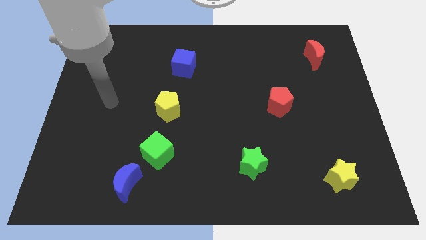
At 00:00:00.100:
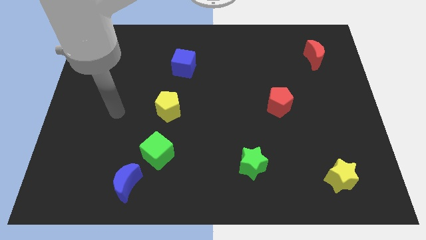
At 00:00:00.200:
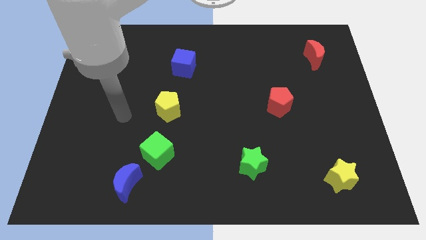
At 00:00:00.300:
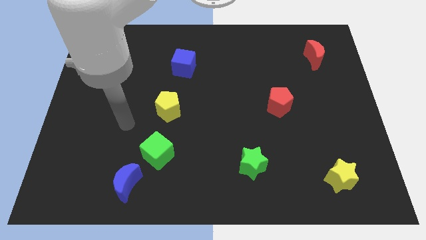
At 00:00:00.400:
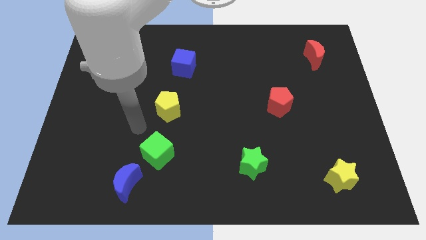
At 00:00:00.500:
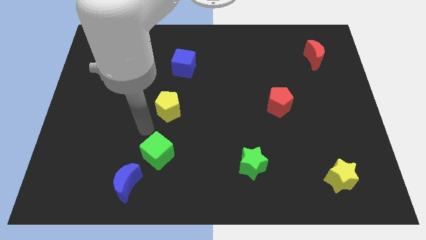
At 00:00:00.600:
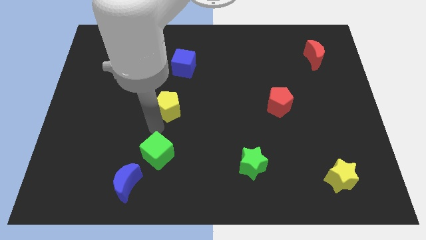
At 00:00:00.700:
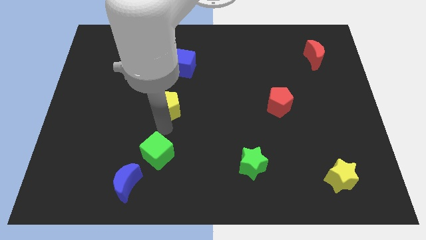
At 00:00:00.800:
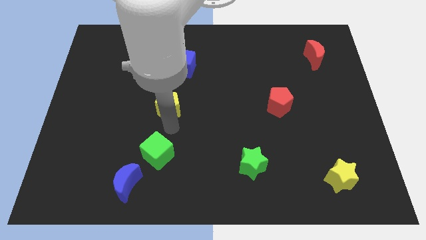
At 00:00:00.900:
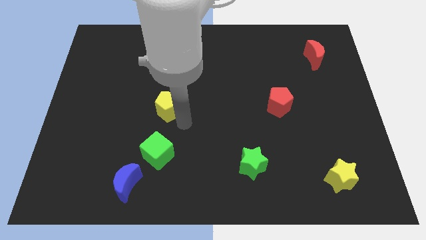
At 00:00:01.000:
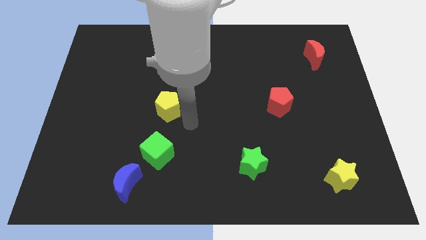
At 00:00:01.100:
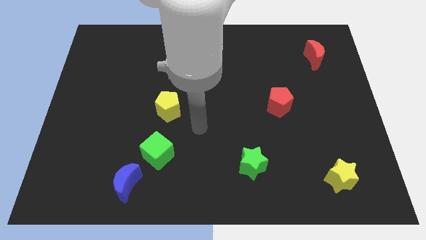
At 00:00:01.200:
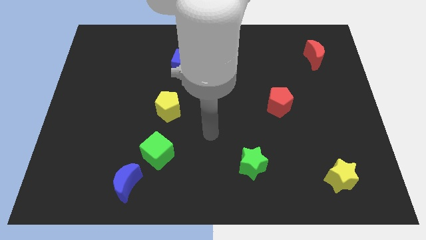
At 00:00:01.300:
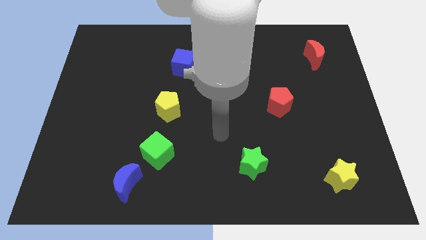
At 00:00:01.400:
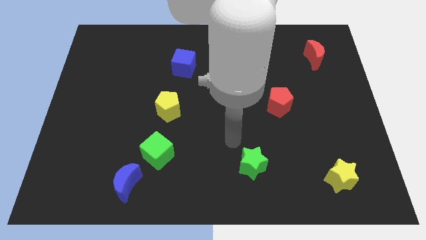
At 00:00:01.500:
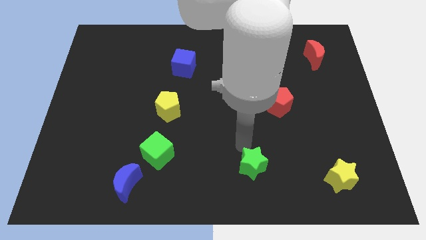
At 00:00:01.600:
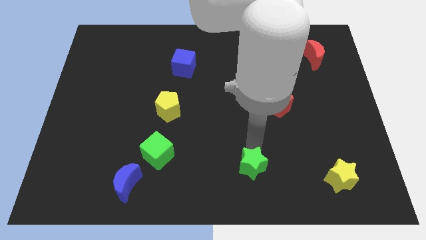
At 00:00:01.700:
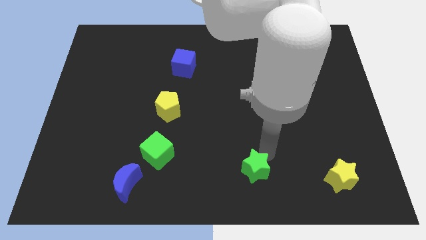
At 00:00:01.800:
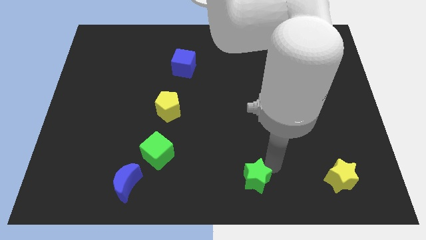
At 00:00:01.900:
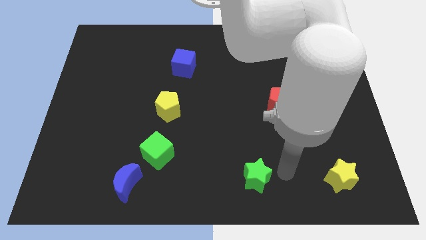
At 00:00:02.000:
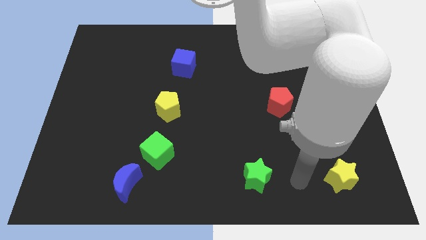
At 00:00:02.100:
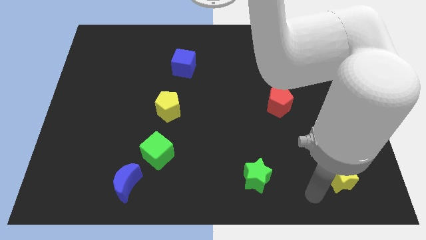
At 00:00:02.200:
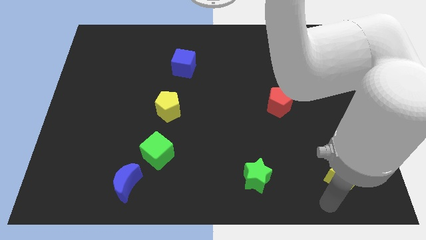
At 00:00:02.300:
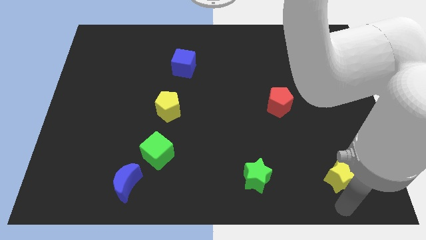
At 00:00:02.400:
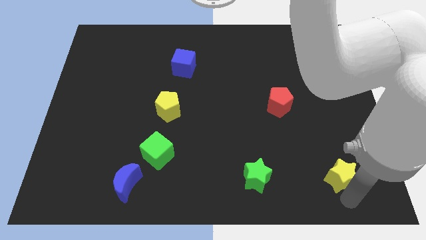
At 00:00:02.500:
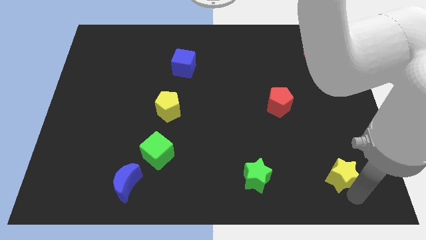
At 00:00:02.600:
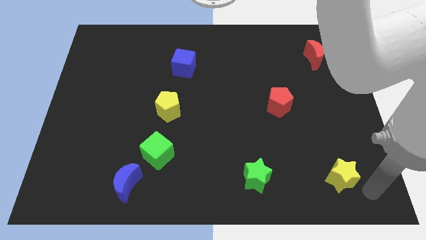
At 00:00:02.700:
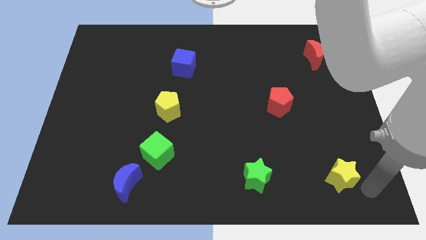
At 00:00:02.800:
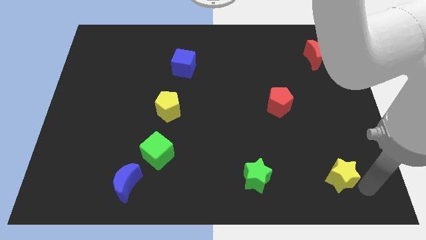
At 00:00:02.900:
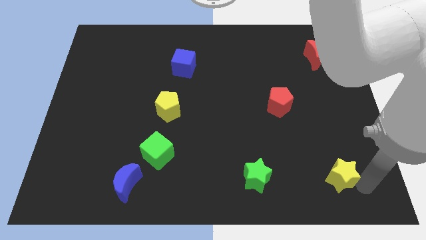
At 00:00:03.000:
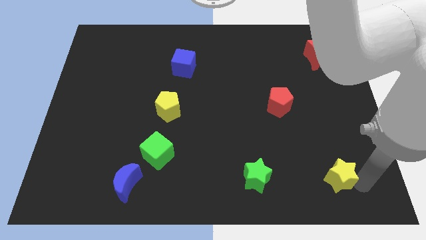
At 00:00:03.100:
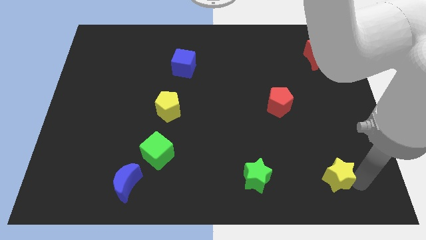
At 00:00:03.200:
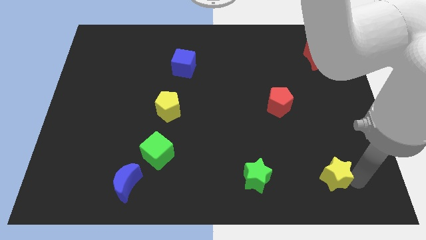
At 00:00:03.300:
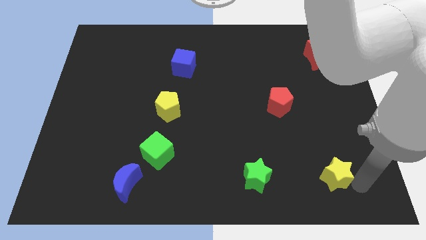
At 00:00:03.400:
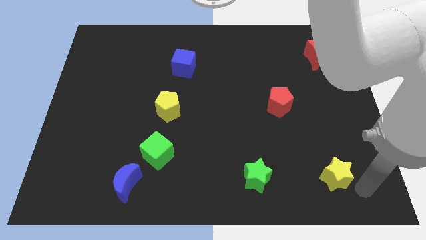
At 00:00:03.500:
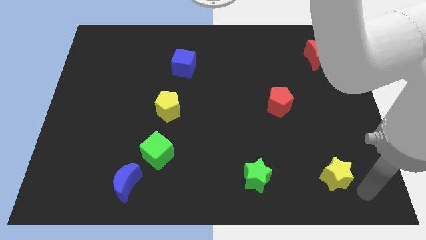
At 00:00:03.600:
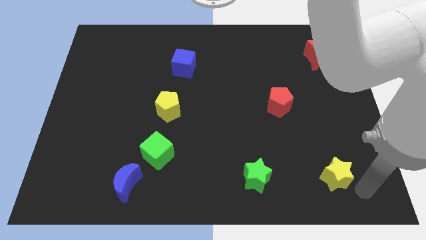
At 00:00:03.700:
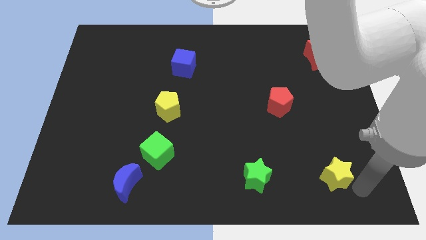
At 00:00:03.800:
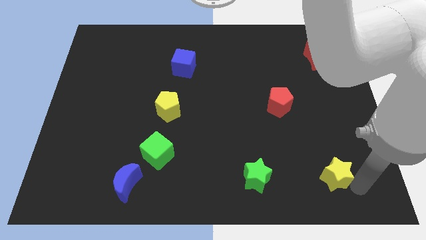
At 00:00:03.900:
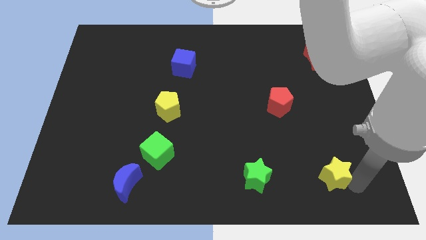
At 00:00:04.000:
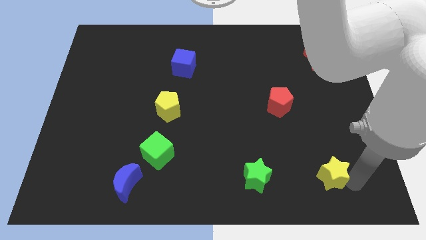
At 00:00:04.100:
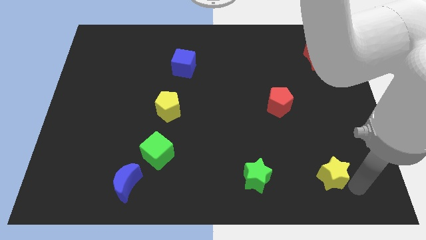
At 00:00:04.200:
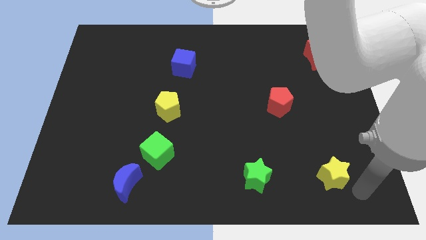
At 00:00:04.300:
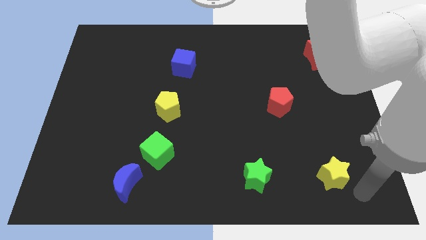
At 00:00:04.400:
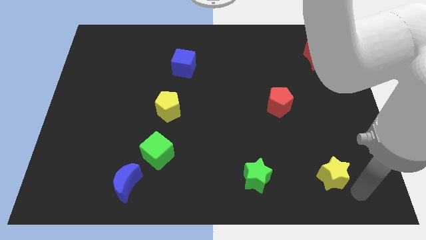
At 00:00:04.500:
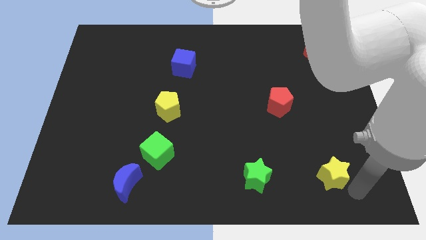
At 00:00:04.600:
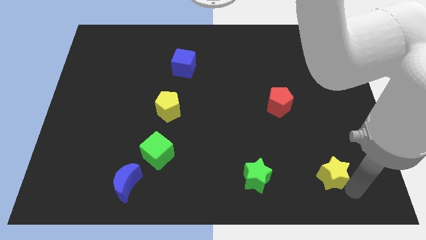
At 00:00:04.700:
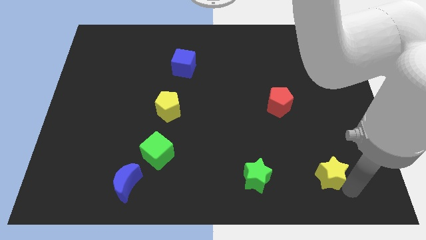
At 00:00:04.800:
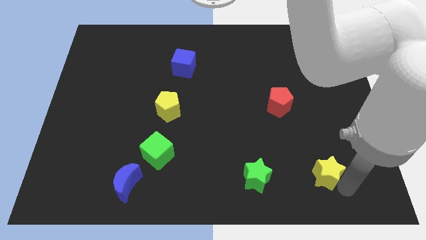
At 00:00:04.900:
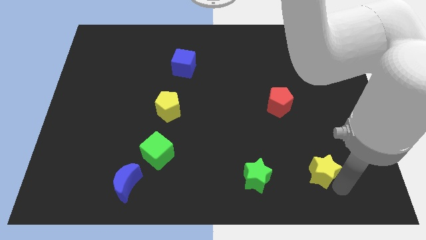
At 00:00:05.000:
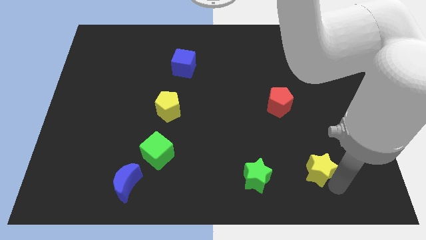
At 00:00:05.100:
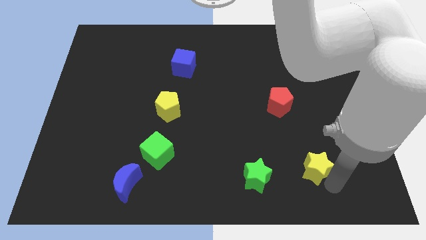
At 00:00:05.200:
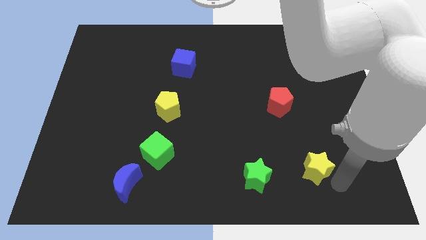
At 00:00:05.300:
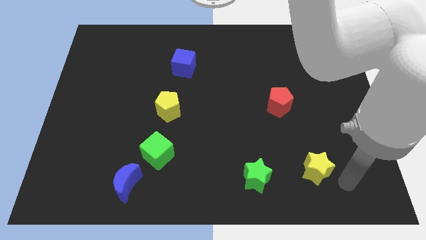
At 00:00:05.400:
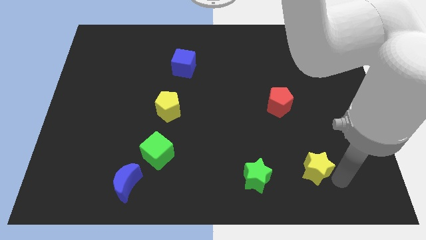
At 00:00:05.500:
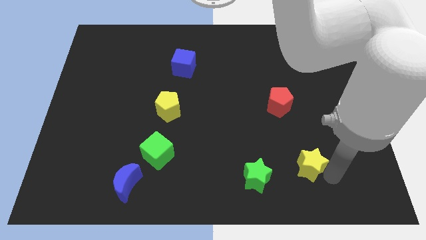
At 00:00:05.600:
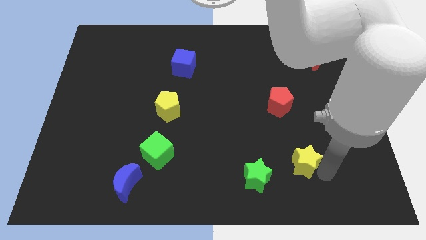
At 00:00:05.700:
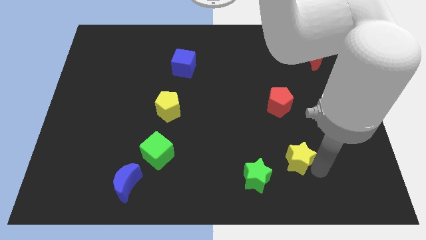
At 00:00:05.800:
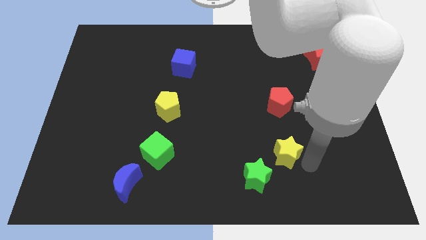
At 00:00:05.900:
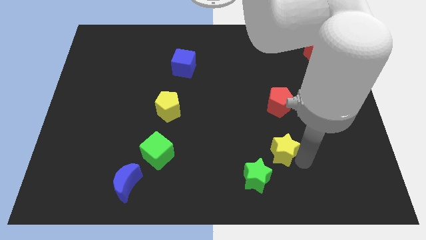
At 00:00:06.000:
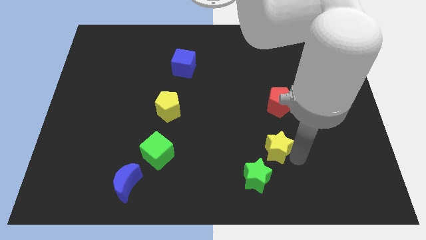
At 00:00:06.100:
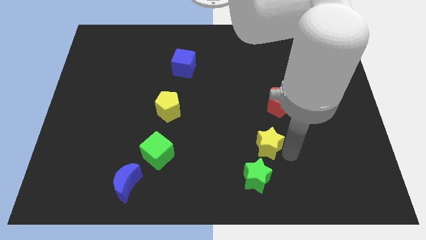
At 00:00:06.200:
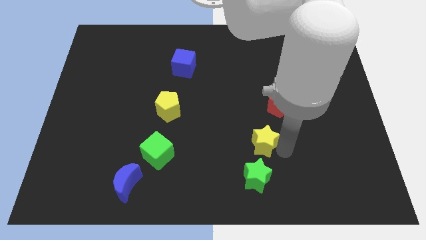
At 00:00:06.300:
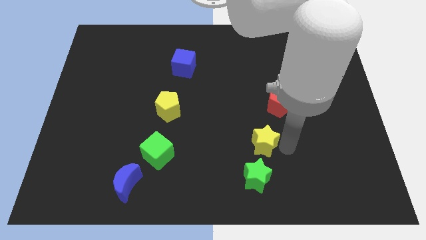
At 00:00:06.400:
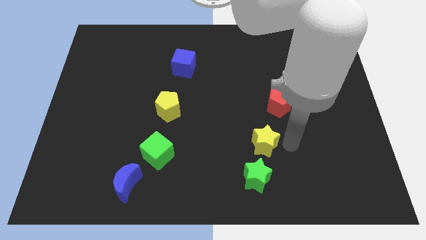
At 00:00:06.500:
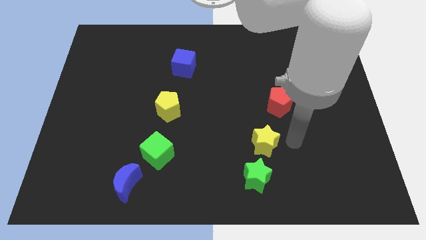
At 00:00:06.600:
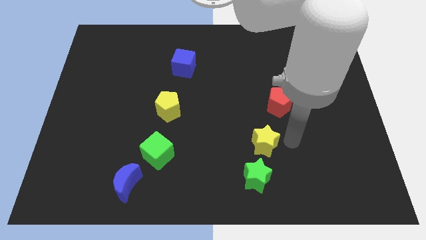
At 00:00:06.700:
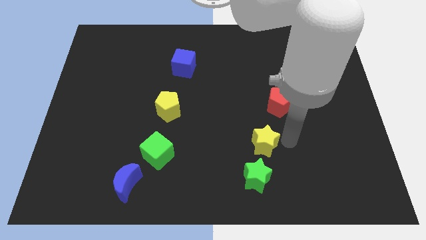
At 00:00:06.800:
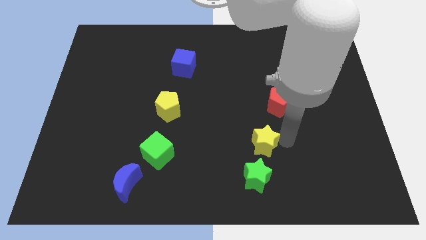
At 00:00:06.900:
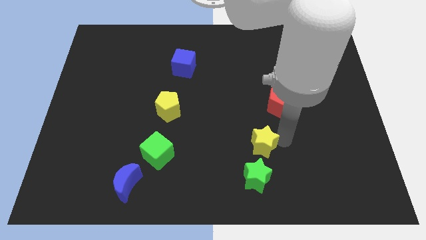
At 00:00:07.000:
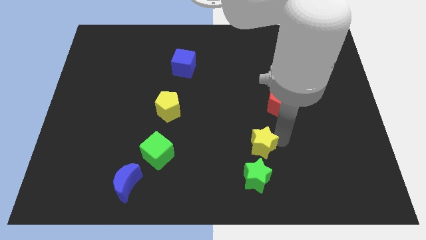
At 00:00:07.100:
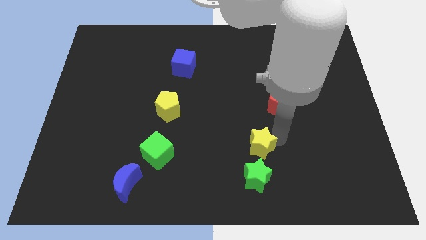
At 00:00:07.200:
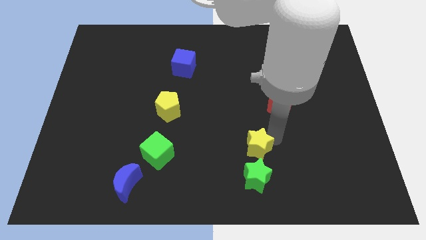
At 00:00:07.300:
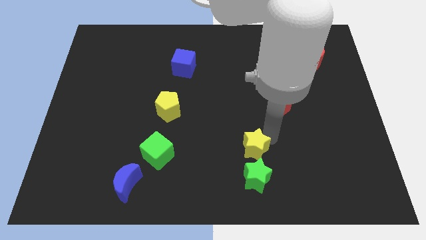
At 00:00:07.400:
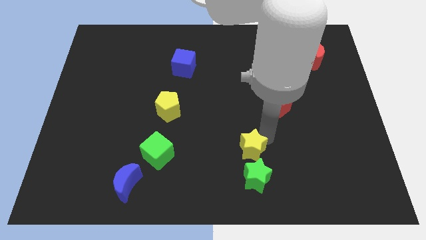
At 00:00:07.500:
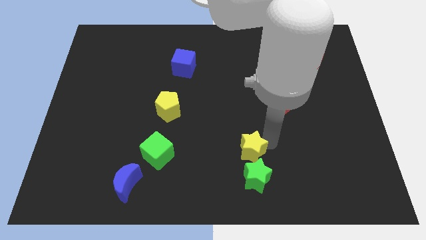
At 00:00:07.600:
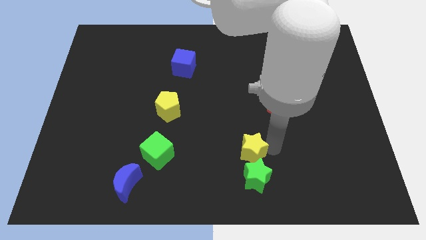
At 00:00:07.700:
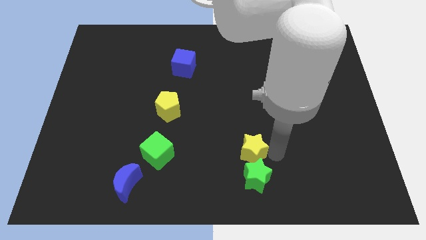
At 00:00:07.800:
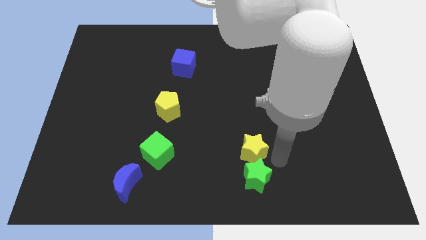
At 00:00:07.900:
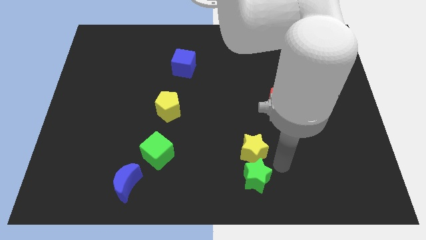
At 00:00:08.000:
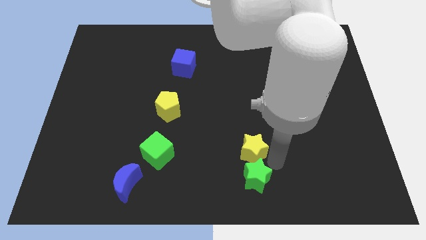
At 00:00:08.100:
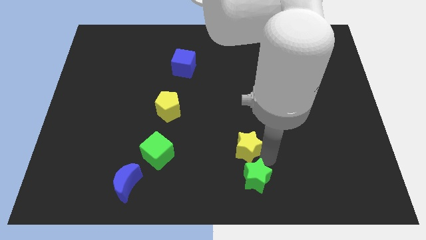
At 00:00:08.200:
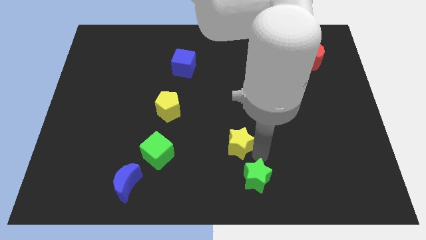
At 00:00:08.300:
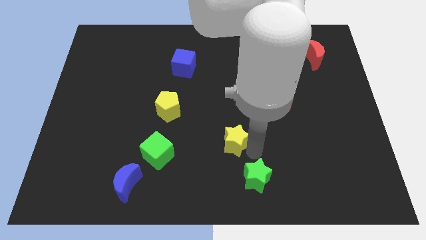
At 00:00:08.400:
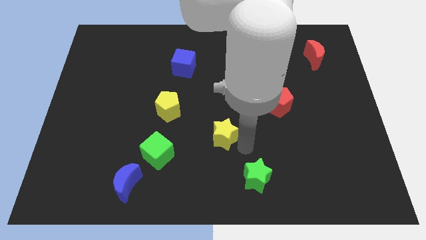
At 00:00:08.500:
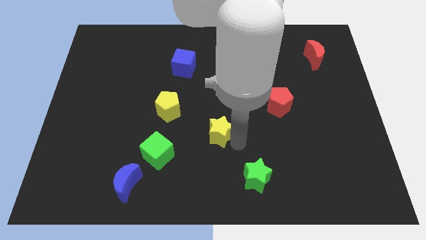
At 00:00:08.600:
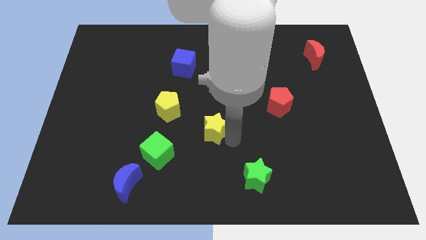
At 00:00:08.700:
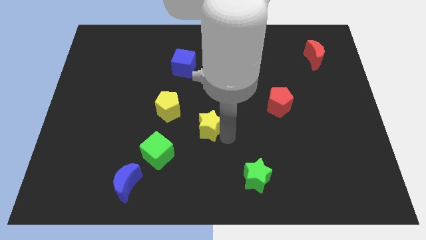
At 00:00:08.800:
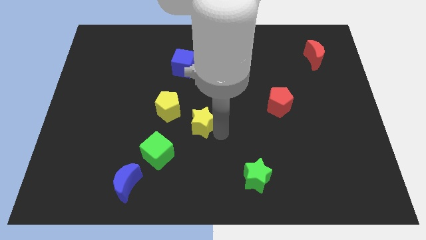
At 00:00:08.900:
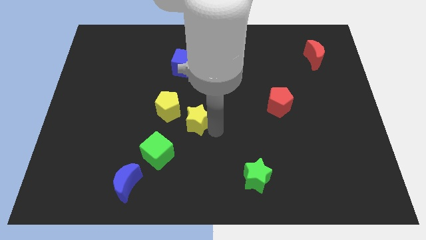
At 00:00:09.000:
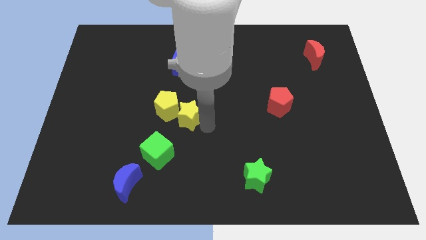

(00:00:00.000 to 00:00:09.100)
put the yellow star close to the yellow pentagon
